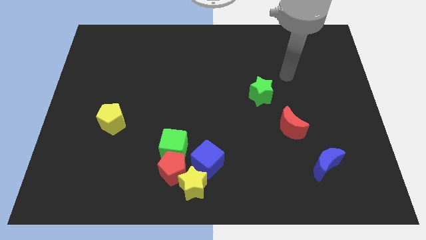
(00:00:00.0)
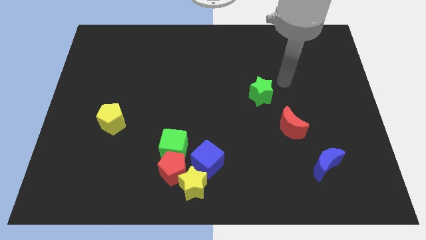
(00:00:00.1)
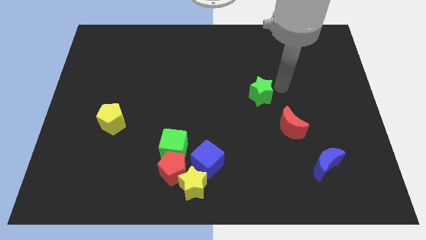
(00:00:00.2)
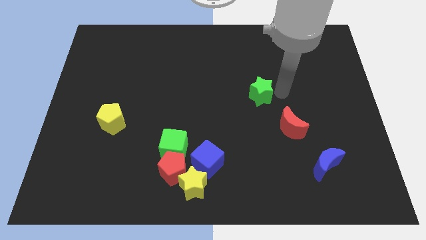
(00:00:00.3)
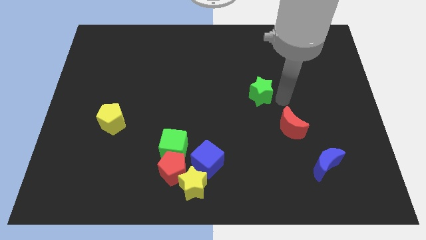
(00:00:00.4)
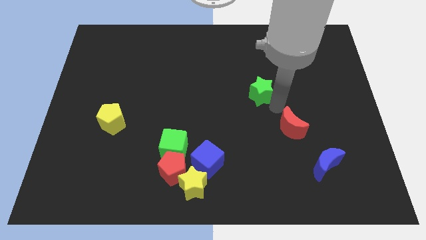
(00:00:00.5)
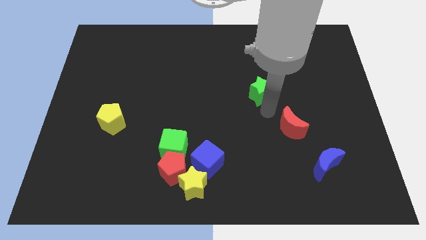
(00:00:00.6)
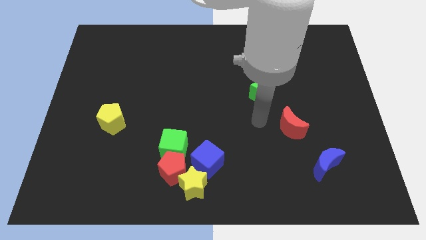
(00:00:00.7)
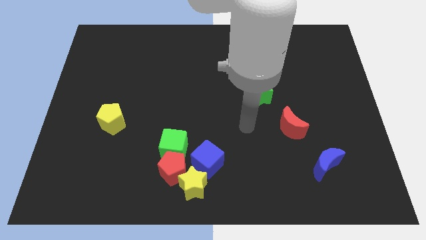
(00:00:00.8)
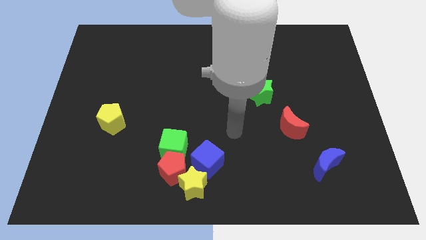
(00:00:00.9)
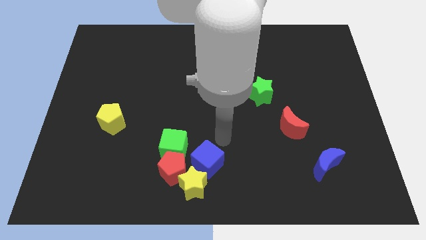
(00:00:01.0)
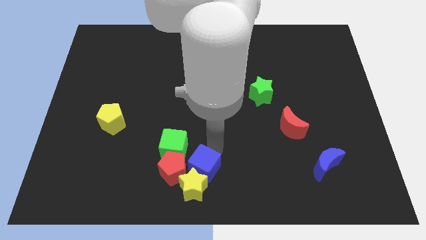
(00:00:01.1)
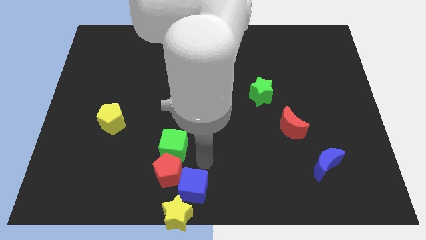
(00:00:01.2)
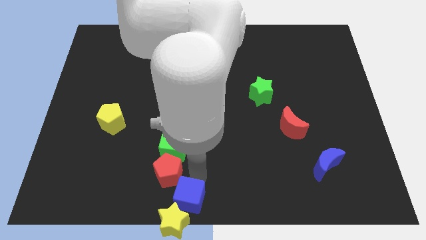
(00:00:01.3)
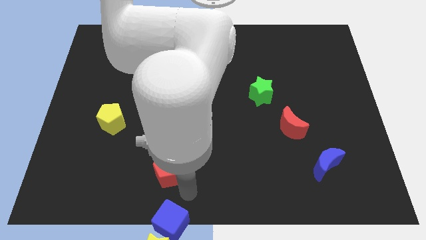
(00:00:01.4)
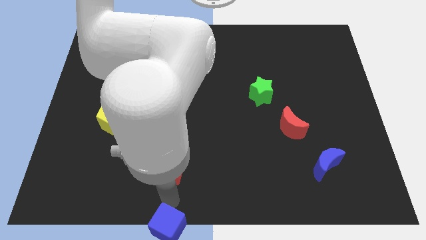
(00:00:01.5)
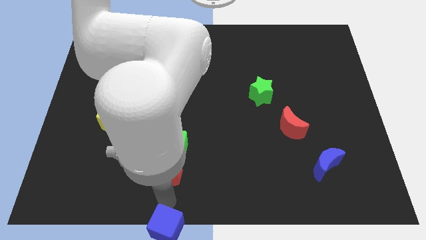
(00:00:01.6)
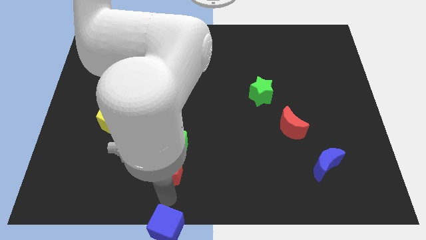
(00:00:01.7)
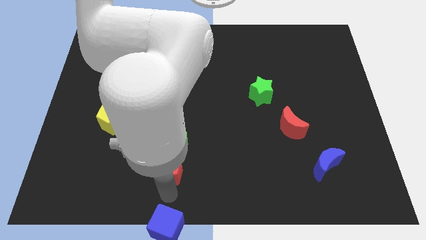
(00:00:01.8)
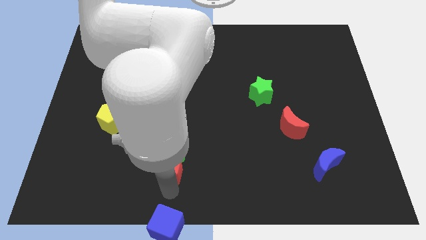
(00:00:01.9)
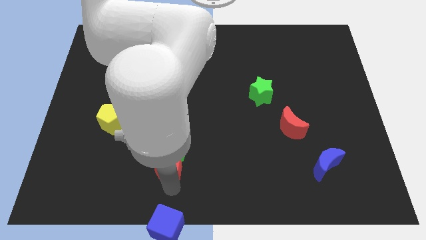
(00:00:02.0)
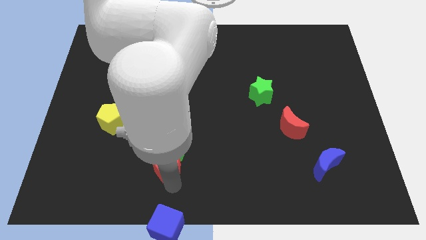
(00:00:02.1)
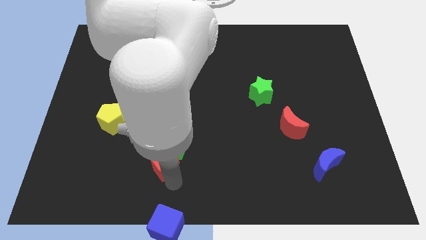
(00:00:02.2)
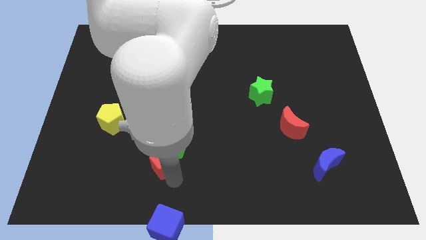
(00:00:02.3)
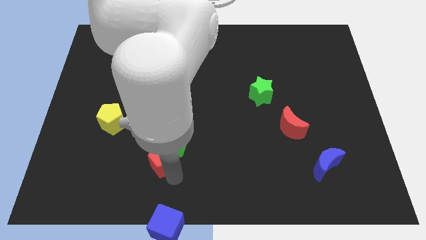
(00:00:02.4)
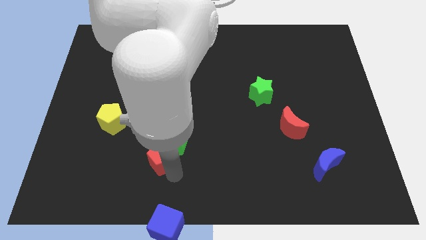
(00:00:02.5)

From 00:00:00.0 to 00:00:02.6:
pull the red pentagon apart from the group of blocks

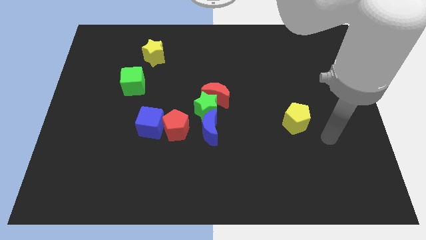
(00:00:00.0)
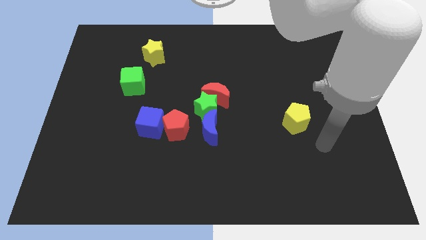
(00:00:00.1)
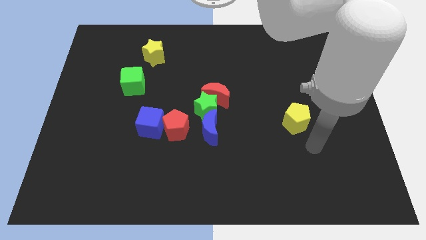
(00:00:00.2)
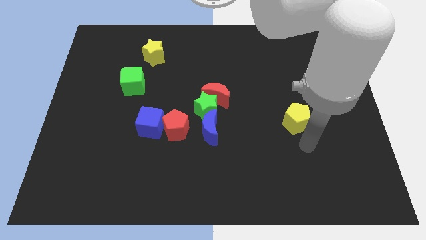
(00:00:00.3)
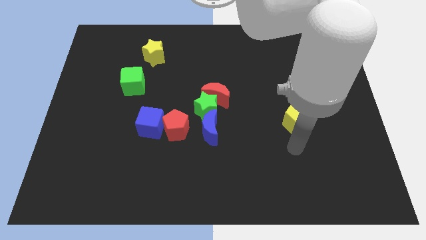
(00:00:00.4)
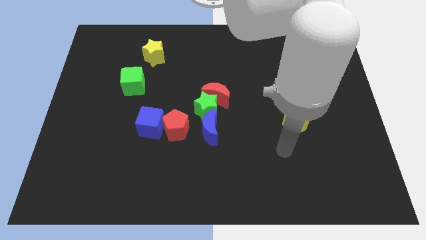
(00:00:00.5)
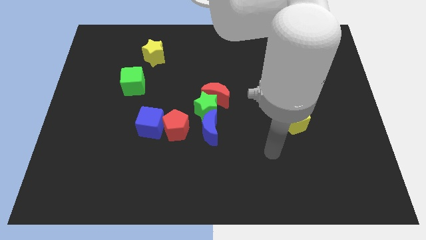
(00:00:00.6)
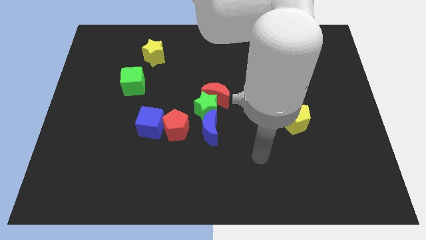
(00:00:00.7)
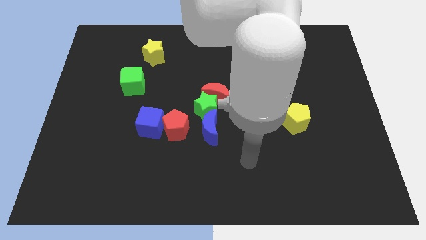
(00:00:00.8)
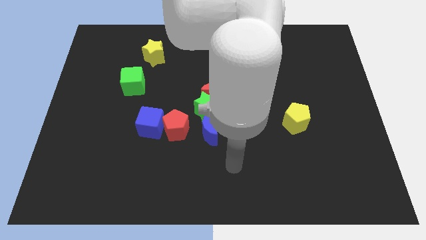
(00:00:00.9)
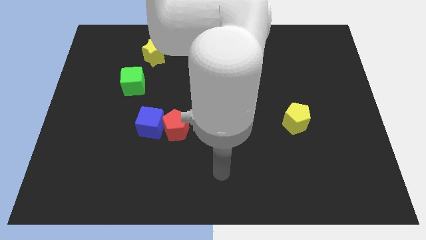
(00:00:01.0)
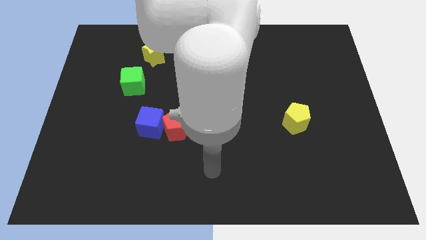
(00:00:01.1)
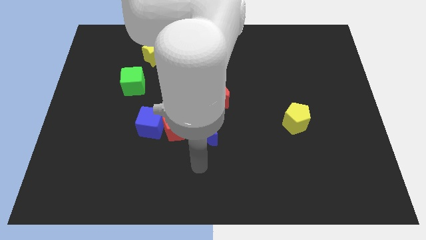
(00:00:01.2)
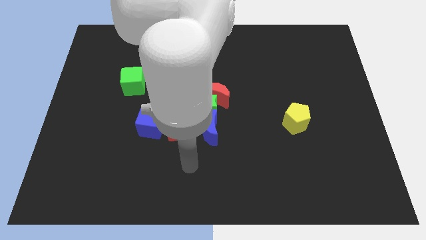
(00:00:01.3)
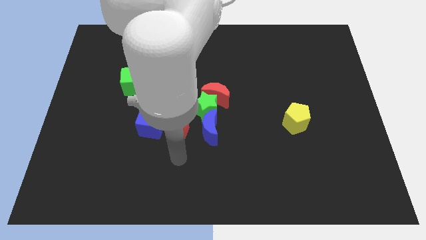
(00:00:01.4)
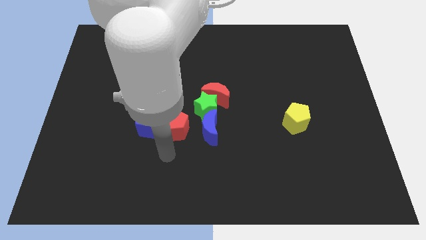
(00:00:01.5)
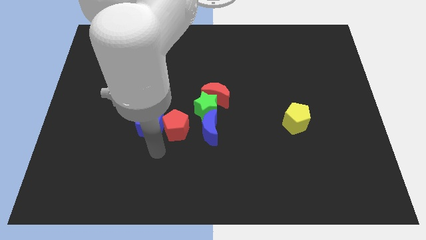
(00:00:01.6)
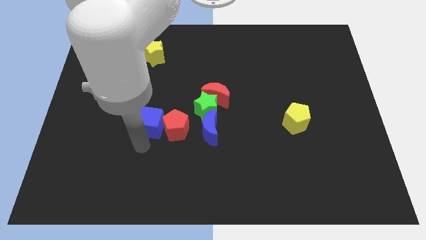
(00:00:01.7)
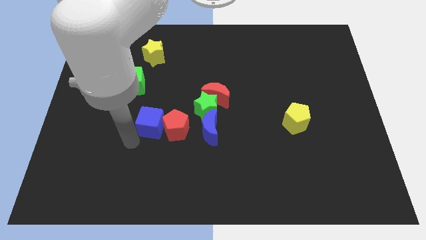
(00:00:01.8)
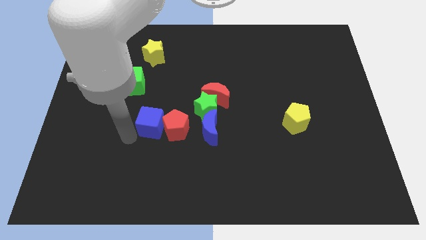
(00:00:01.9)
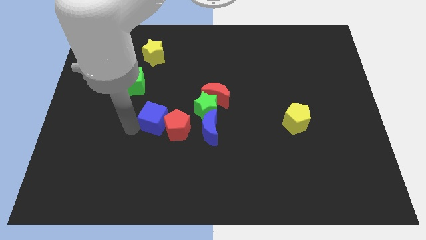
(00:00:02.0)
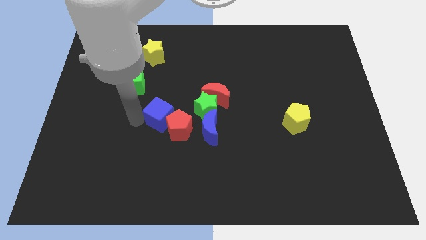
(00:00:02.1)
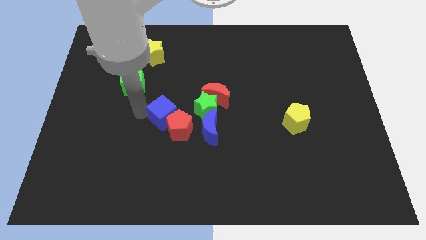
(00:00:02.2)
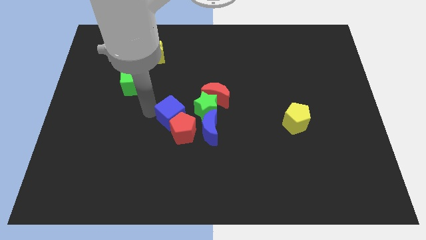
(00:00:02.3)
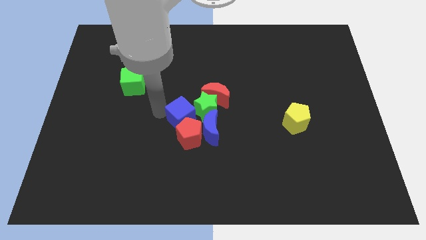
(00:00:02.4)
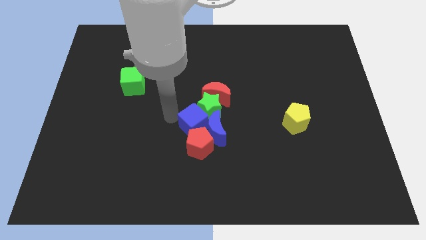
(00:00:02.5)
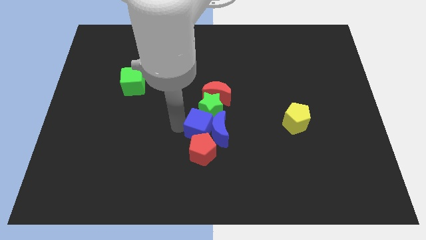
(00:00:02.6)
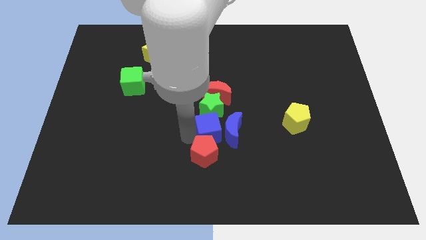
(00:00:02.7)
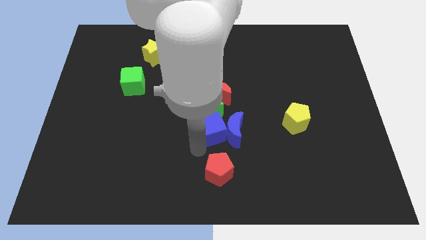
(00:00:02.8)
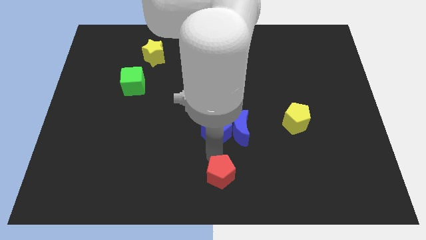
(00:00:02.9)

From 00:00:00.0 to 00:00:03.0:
move the blue cube away from the red pentagon

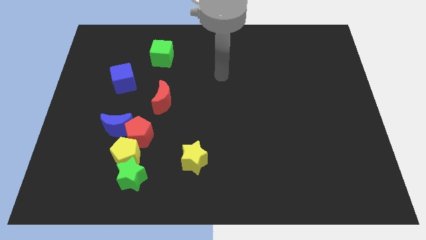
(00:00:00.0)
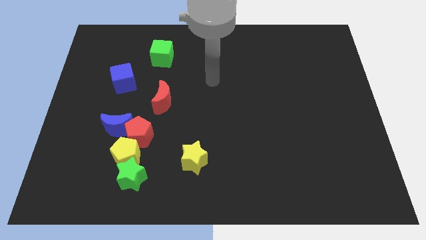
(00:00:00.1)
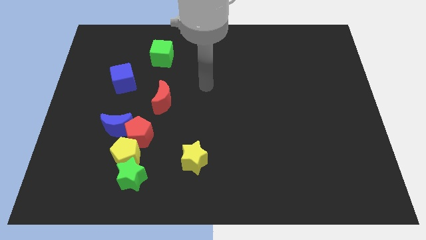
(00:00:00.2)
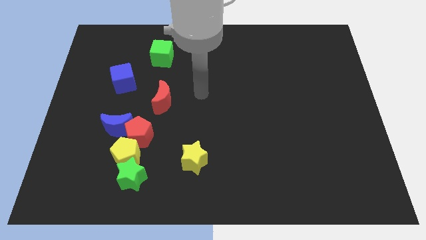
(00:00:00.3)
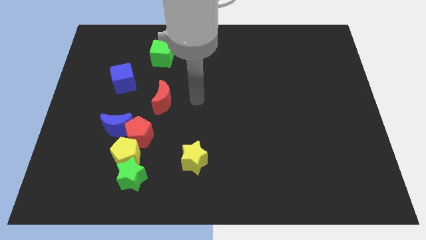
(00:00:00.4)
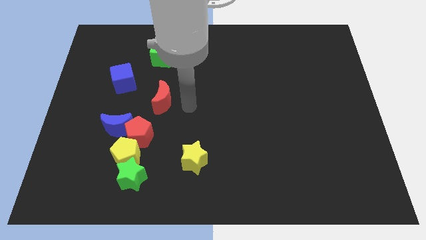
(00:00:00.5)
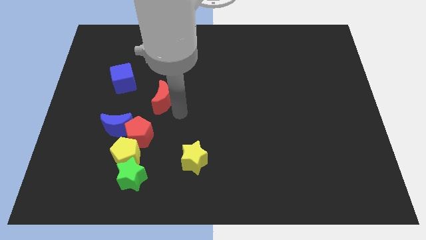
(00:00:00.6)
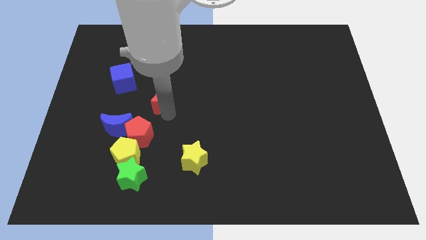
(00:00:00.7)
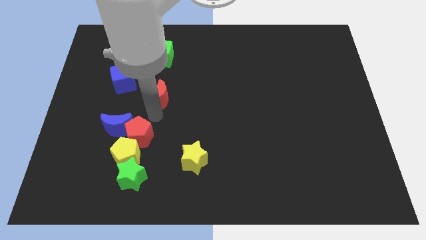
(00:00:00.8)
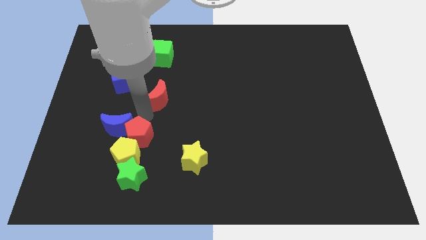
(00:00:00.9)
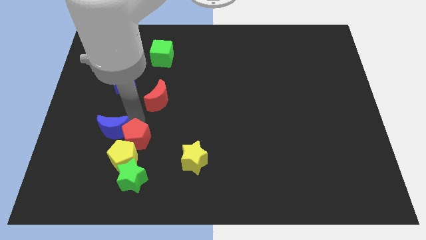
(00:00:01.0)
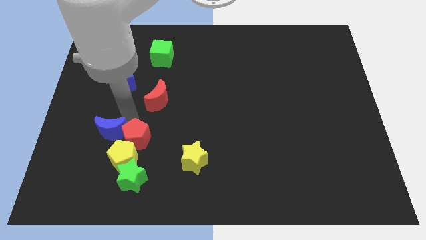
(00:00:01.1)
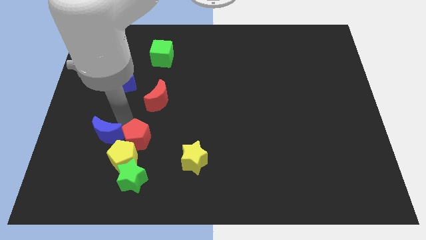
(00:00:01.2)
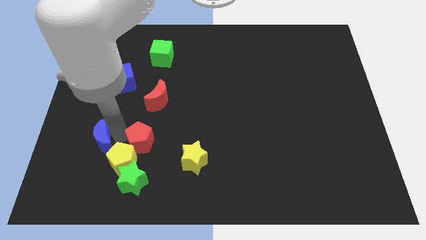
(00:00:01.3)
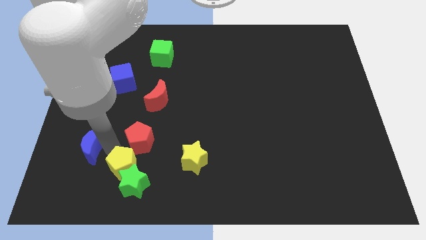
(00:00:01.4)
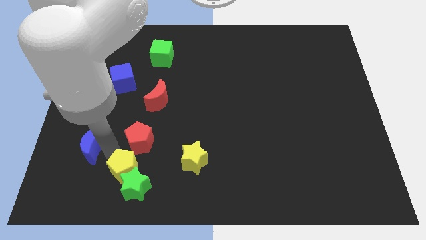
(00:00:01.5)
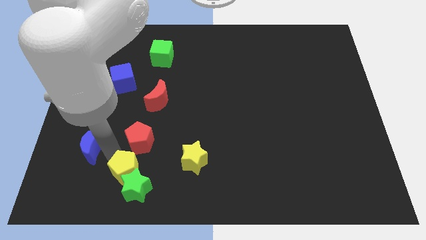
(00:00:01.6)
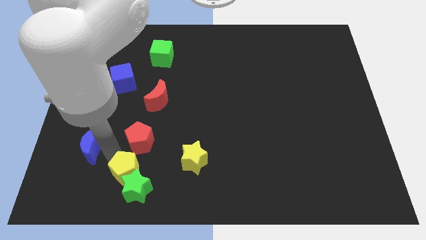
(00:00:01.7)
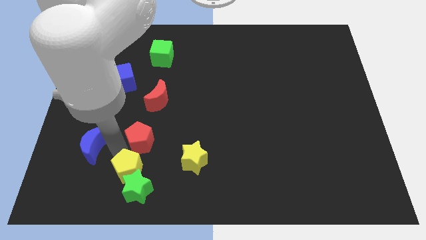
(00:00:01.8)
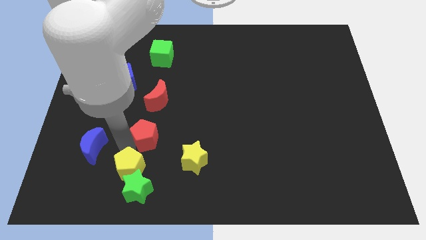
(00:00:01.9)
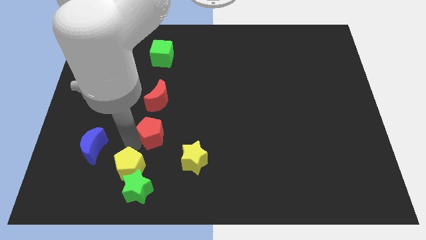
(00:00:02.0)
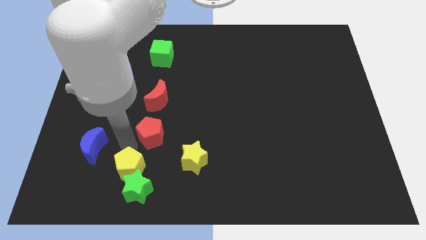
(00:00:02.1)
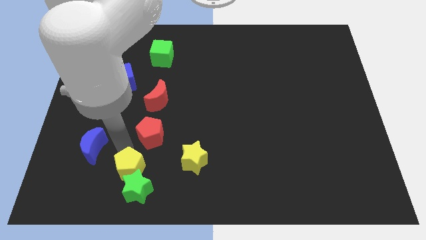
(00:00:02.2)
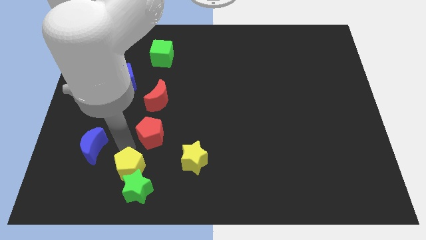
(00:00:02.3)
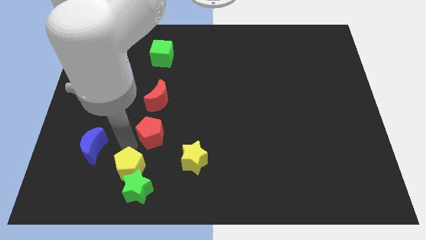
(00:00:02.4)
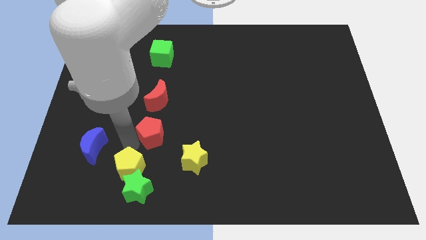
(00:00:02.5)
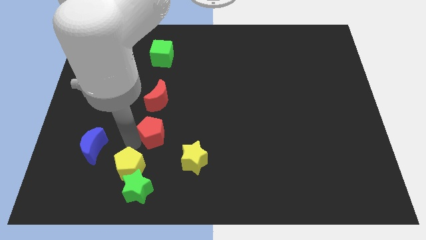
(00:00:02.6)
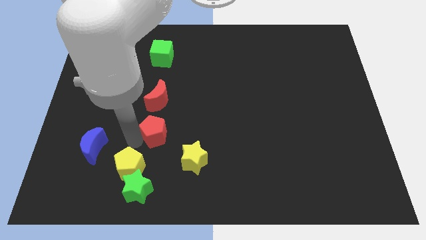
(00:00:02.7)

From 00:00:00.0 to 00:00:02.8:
move the red pentagon away from the blue moon and yellow pentagon

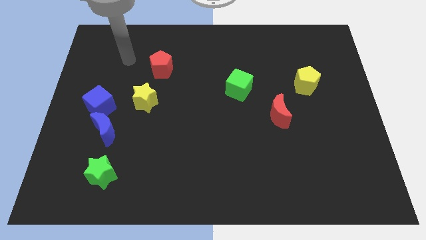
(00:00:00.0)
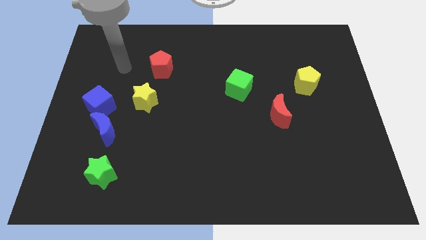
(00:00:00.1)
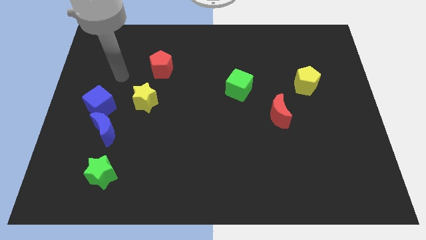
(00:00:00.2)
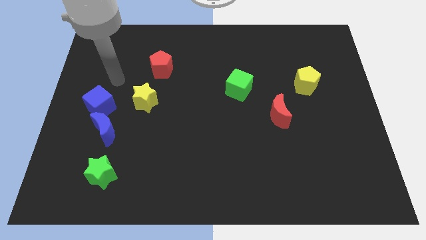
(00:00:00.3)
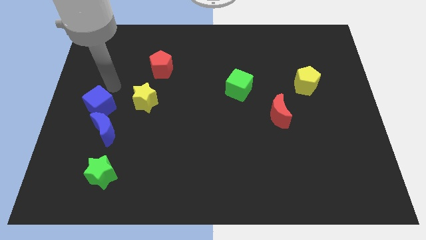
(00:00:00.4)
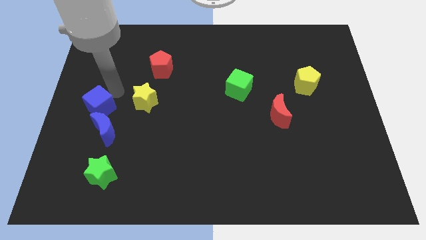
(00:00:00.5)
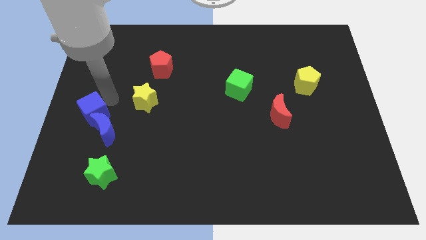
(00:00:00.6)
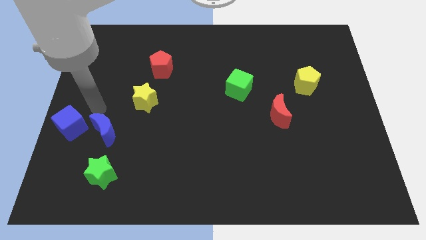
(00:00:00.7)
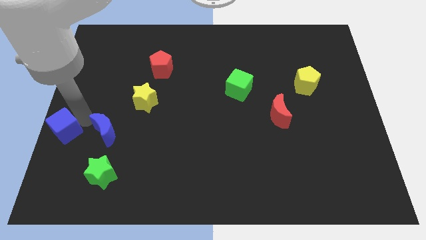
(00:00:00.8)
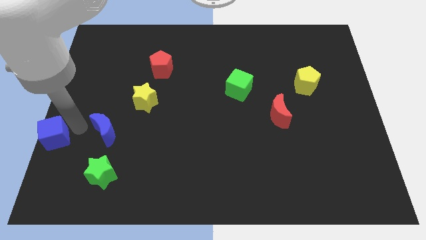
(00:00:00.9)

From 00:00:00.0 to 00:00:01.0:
move the blue moon away from the blue cube
